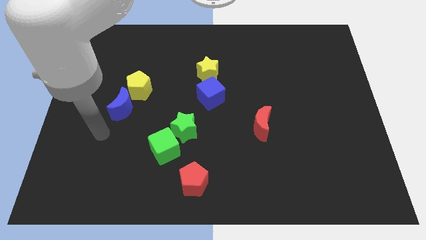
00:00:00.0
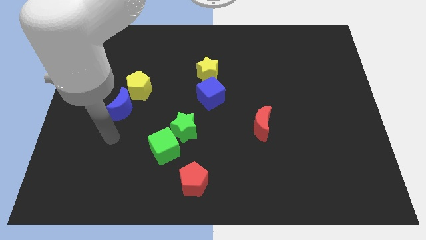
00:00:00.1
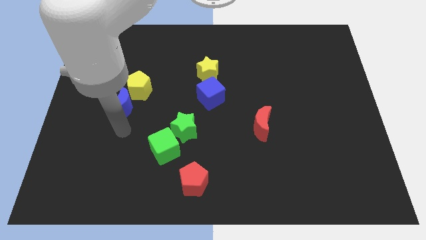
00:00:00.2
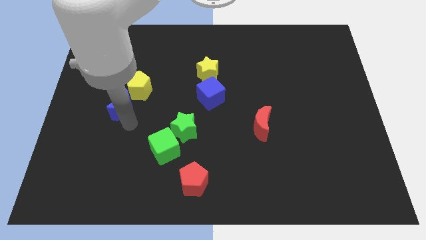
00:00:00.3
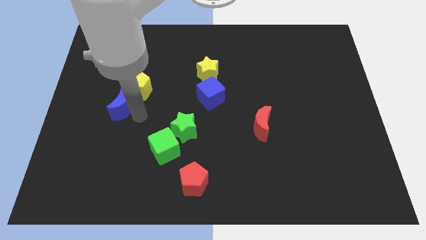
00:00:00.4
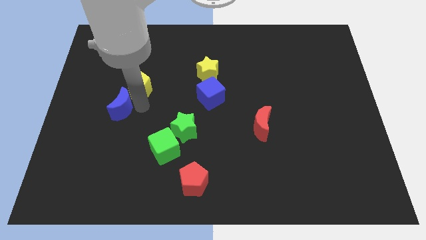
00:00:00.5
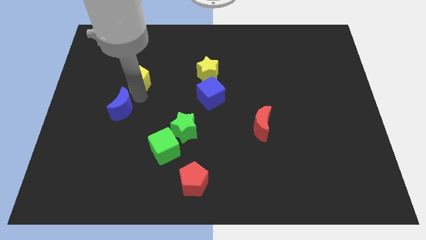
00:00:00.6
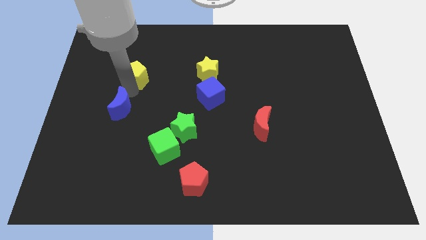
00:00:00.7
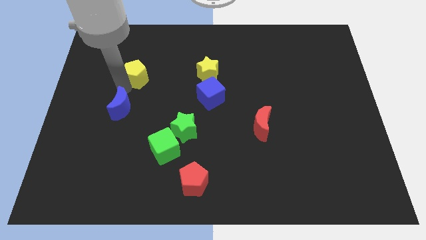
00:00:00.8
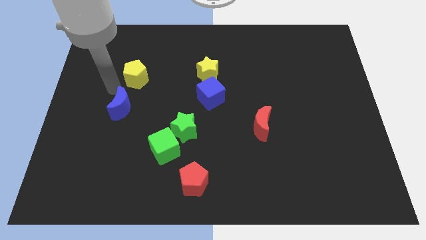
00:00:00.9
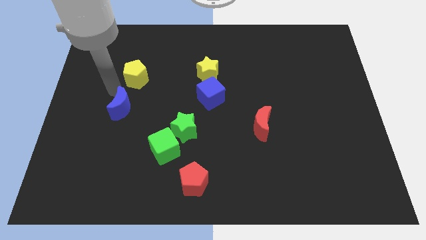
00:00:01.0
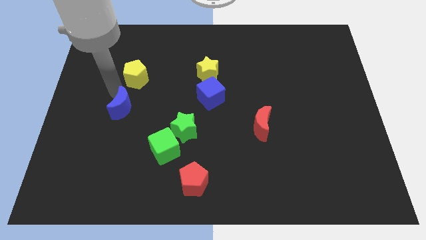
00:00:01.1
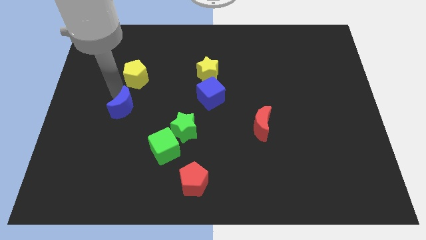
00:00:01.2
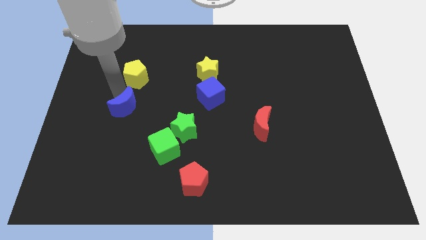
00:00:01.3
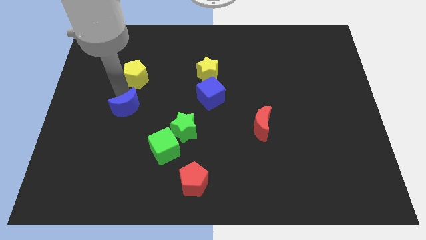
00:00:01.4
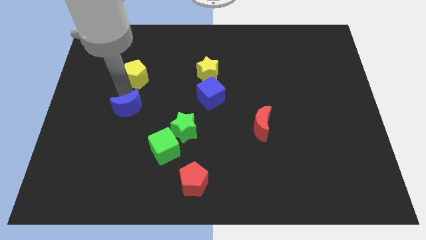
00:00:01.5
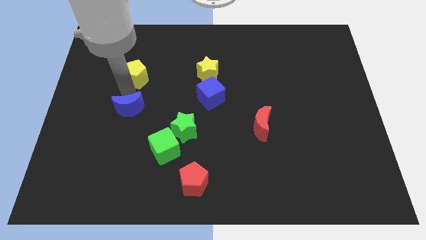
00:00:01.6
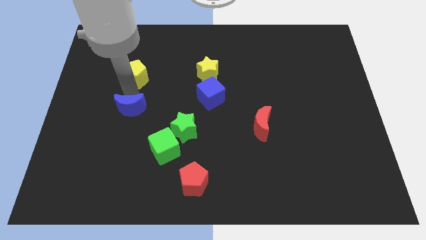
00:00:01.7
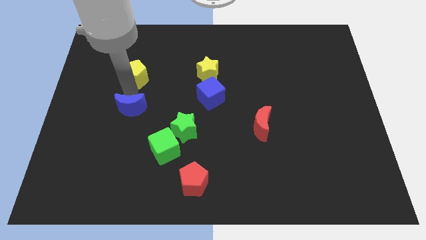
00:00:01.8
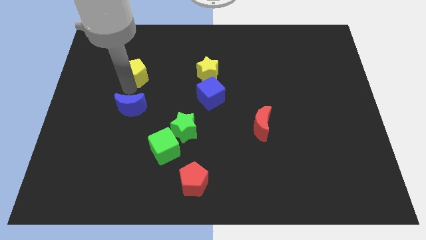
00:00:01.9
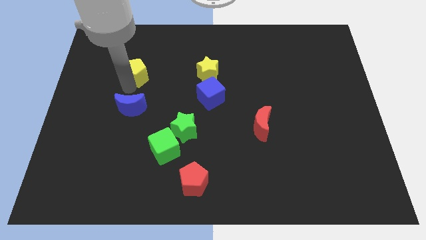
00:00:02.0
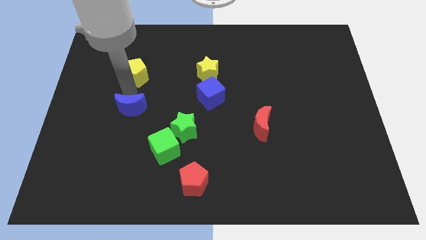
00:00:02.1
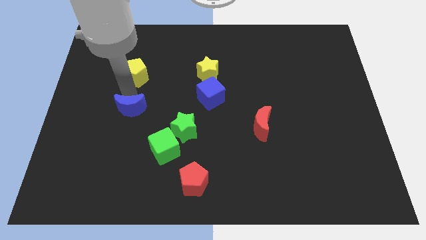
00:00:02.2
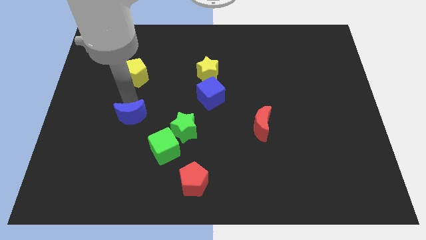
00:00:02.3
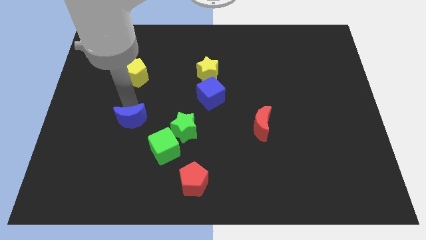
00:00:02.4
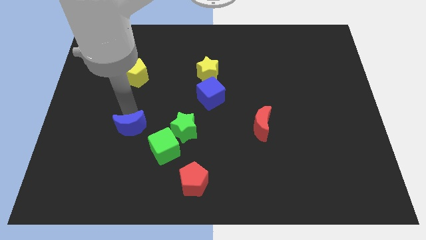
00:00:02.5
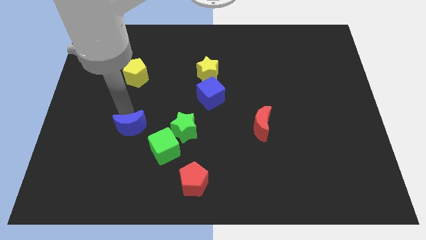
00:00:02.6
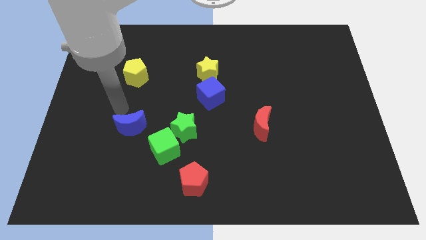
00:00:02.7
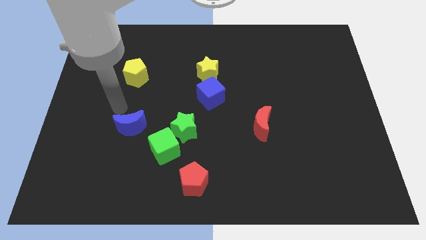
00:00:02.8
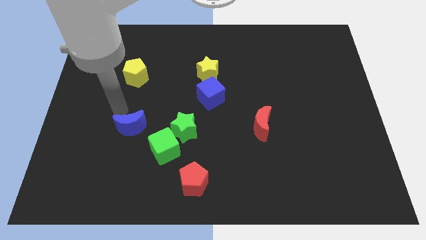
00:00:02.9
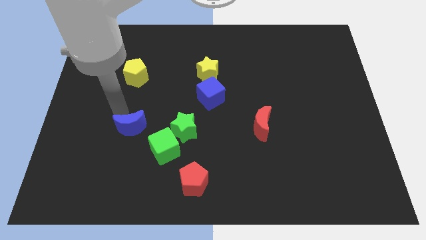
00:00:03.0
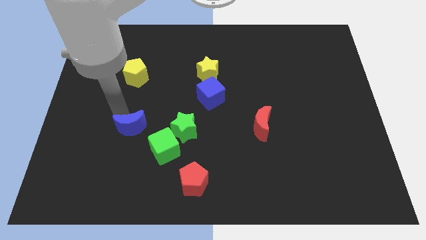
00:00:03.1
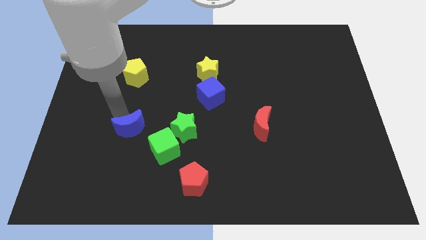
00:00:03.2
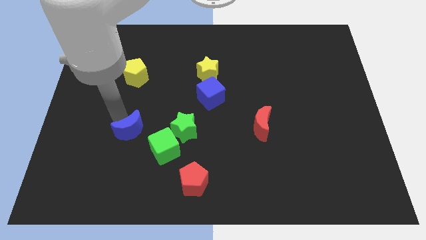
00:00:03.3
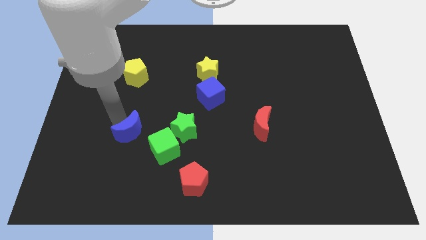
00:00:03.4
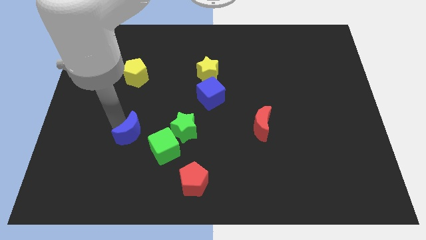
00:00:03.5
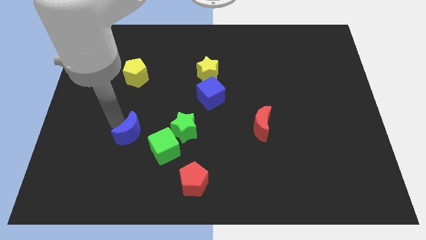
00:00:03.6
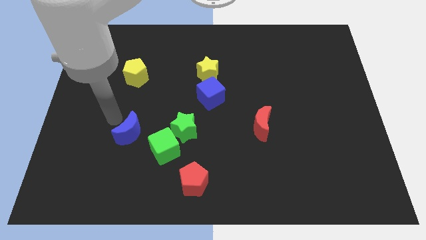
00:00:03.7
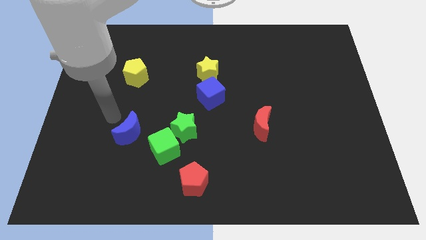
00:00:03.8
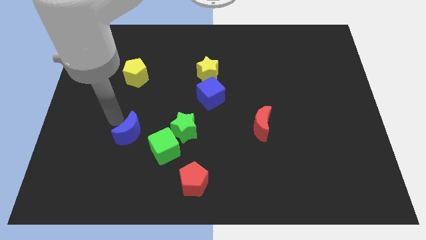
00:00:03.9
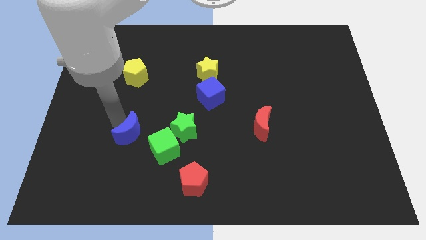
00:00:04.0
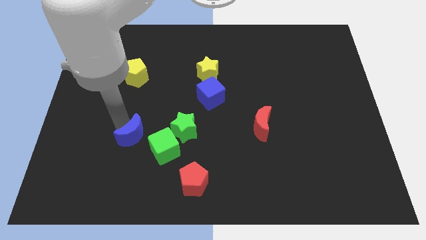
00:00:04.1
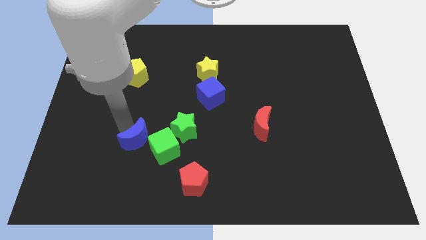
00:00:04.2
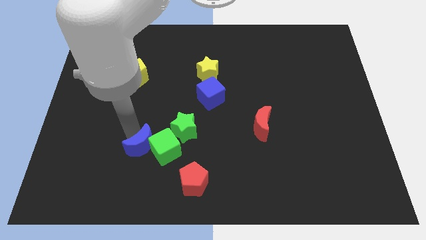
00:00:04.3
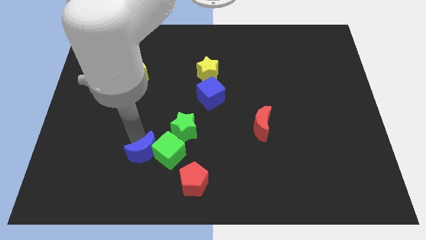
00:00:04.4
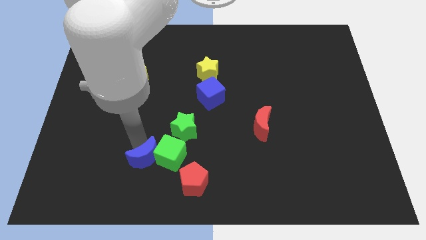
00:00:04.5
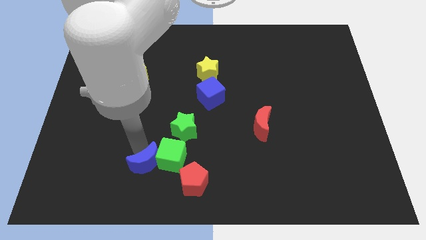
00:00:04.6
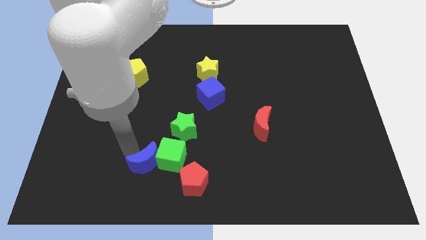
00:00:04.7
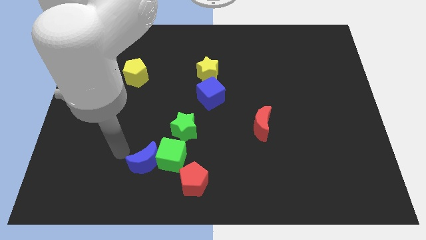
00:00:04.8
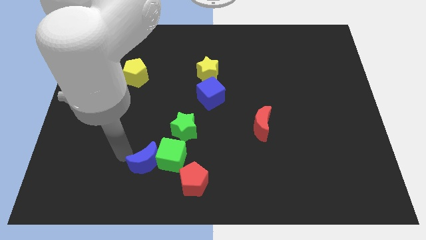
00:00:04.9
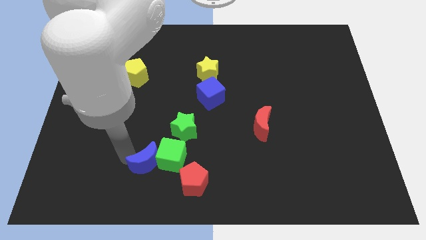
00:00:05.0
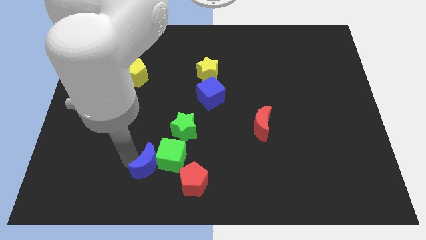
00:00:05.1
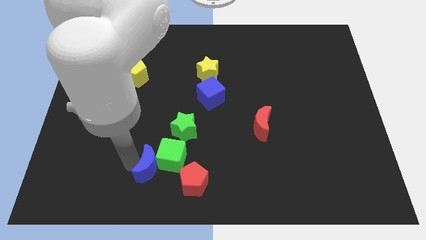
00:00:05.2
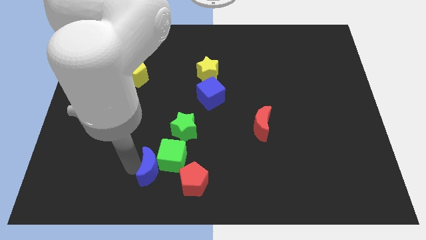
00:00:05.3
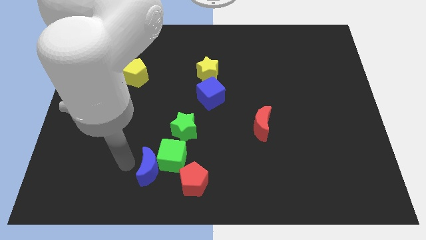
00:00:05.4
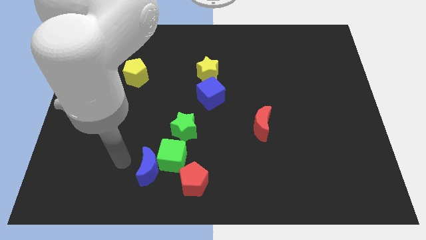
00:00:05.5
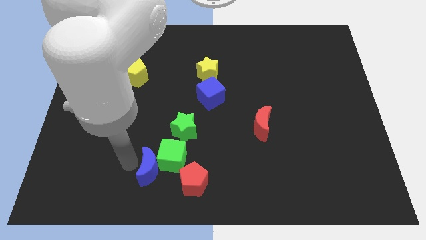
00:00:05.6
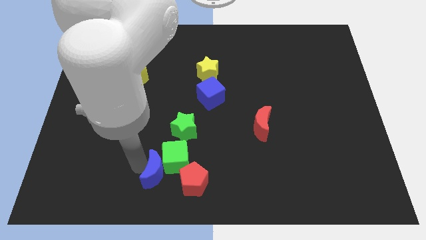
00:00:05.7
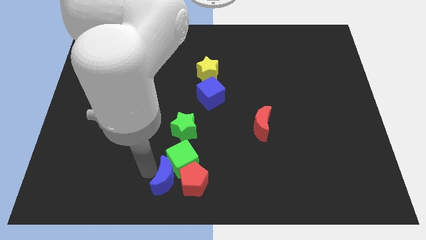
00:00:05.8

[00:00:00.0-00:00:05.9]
put the blue moon close to the red pentagon

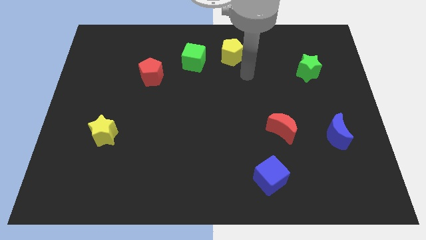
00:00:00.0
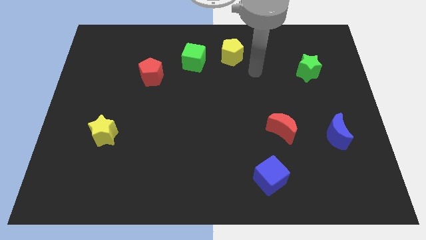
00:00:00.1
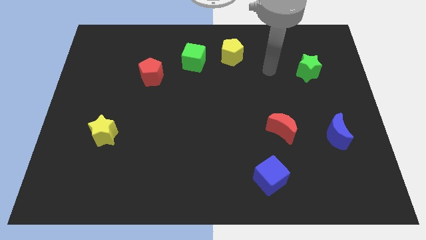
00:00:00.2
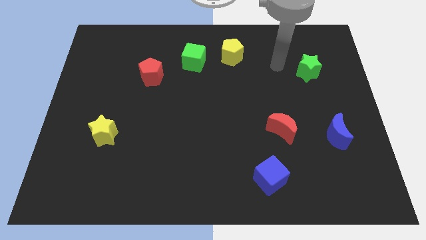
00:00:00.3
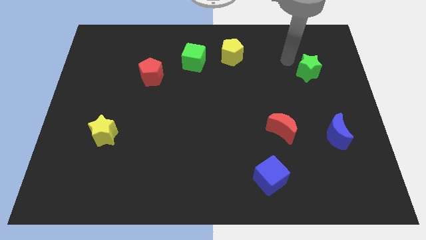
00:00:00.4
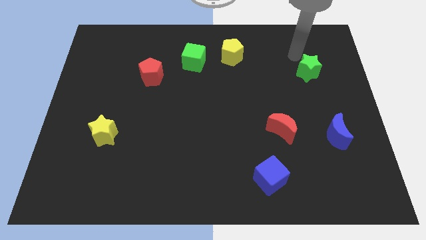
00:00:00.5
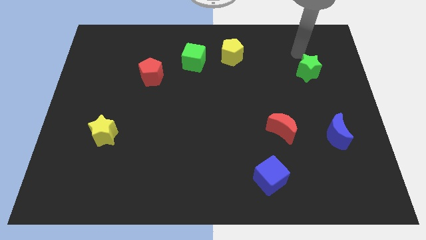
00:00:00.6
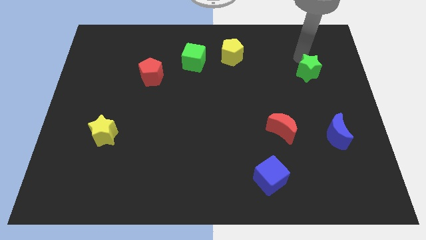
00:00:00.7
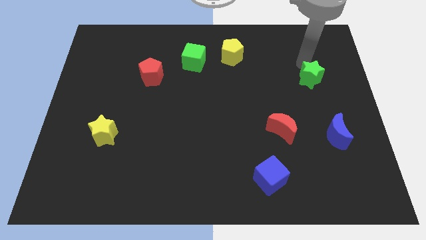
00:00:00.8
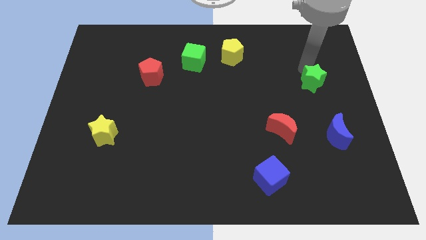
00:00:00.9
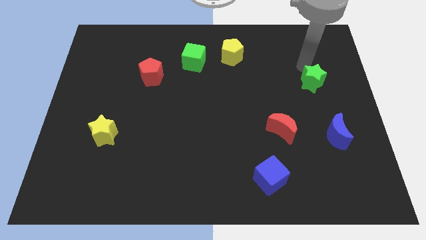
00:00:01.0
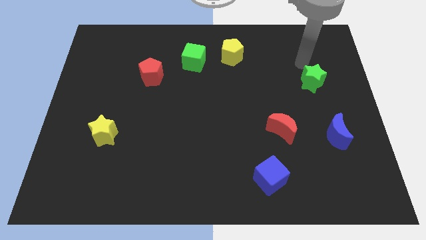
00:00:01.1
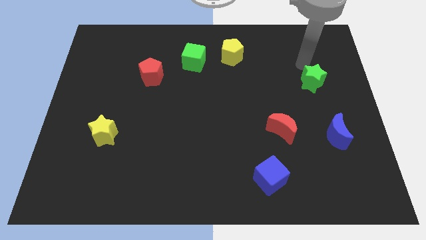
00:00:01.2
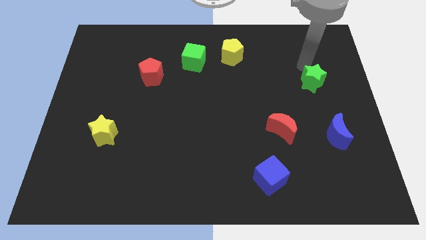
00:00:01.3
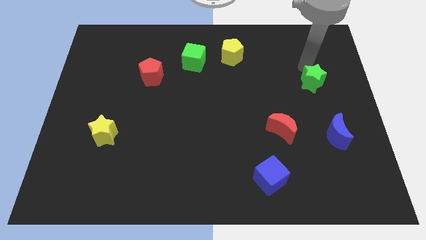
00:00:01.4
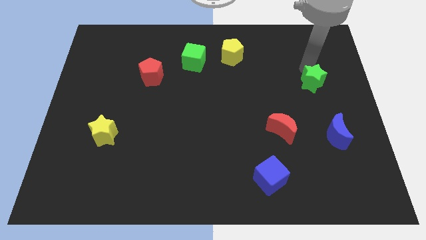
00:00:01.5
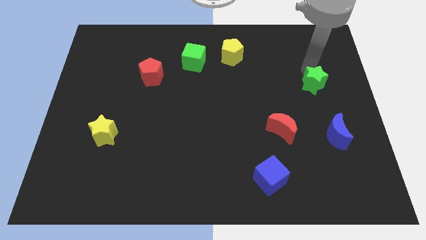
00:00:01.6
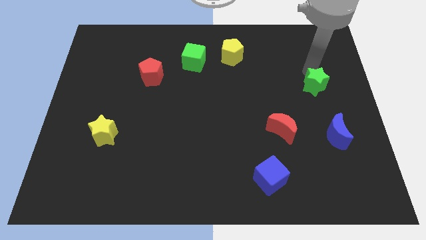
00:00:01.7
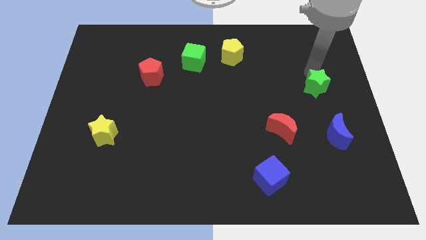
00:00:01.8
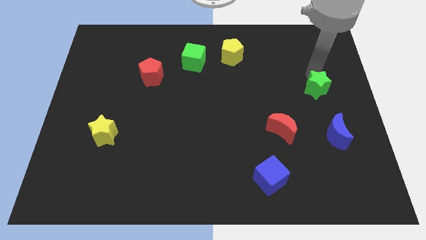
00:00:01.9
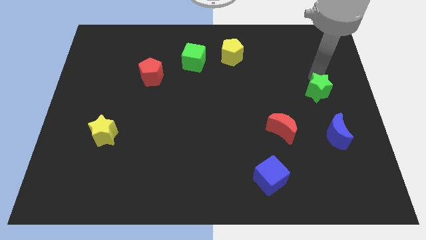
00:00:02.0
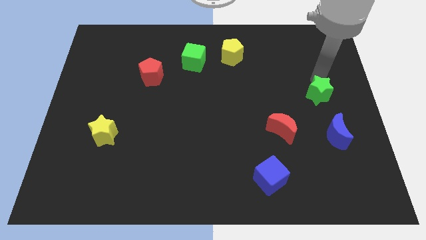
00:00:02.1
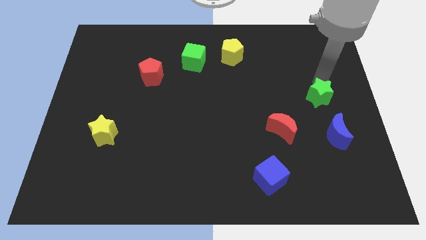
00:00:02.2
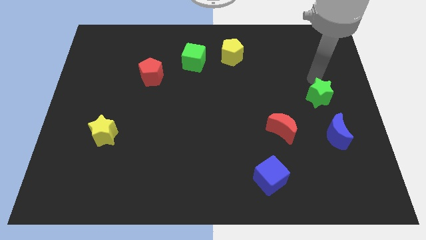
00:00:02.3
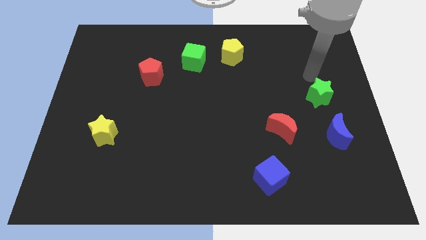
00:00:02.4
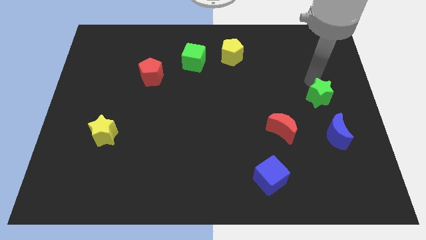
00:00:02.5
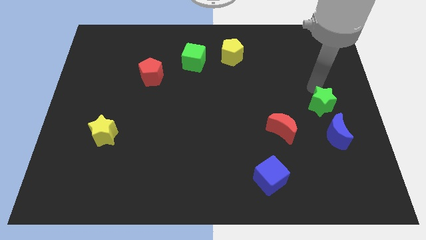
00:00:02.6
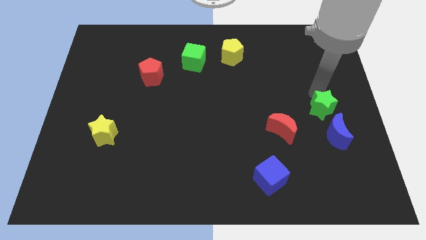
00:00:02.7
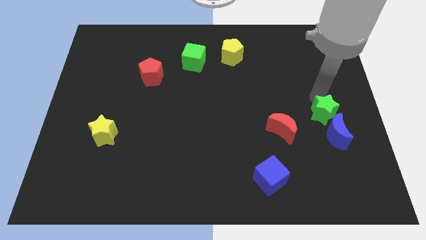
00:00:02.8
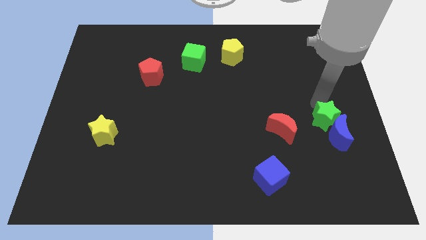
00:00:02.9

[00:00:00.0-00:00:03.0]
put the green star close to the blue moon
